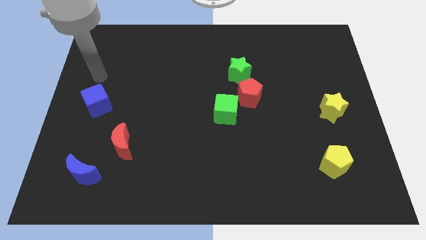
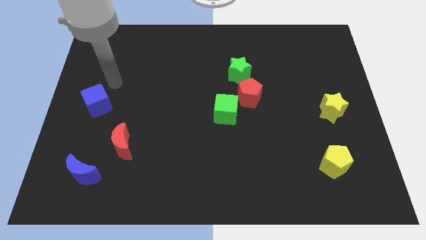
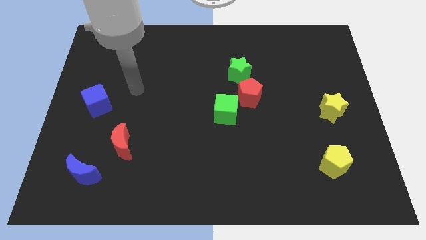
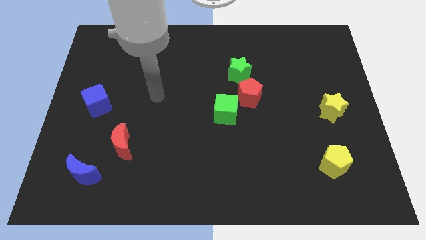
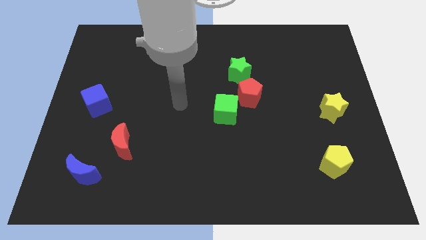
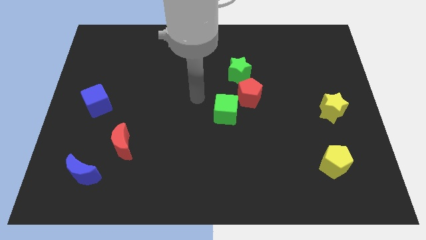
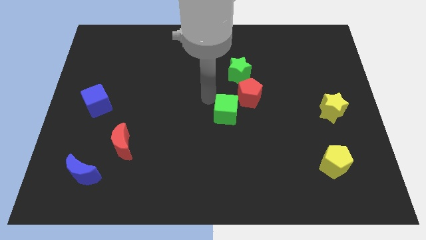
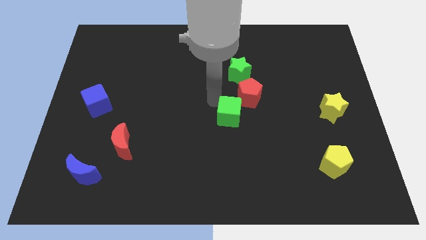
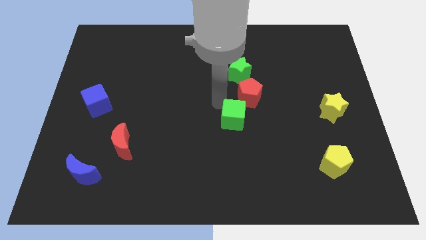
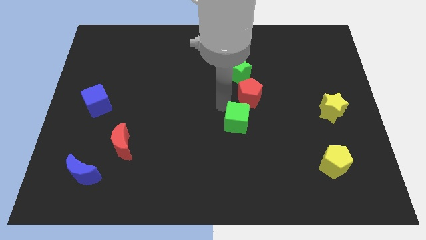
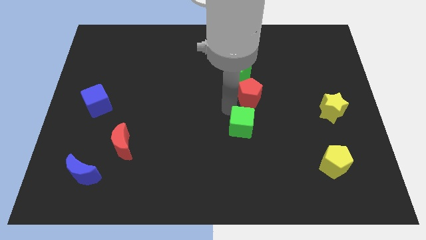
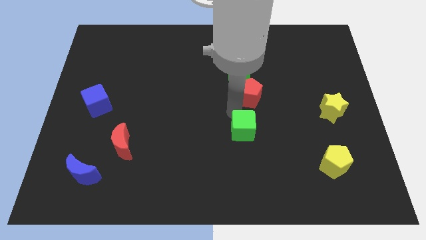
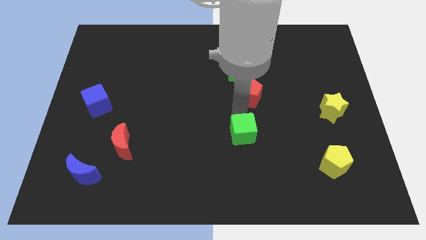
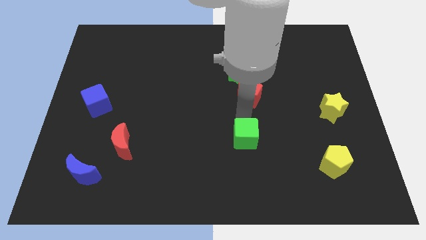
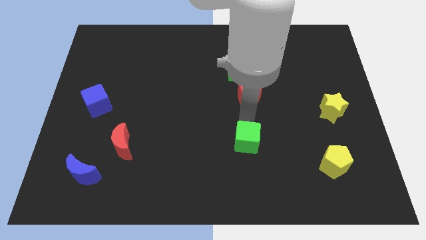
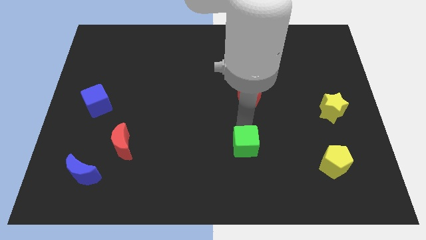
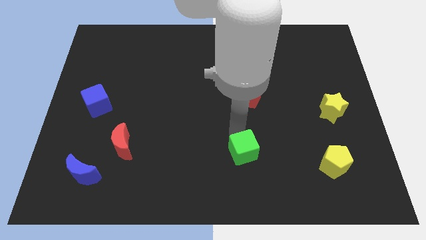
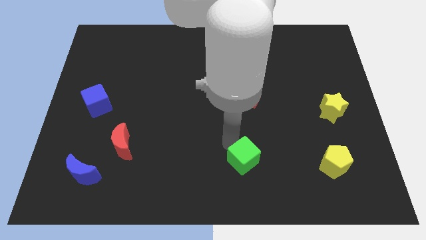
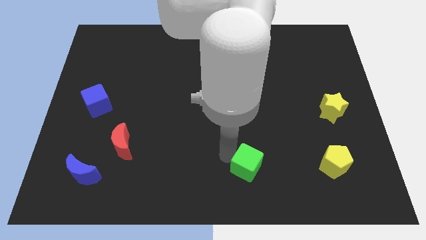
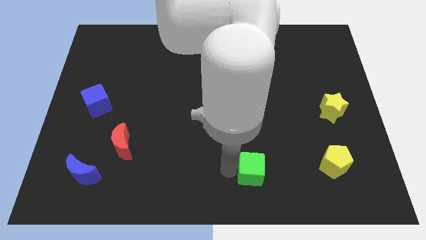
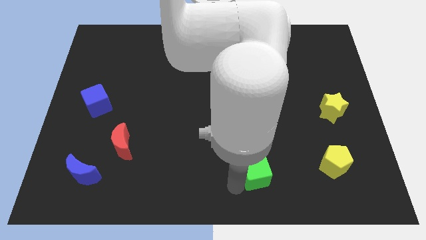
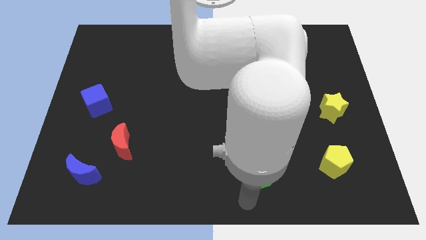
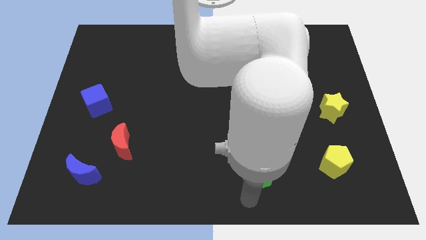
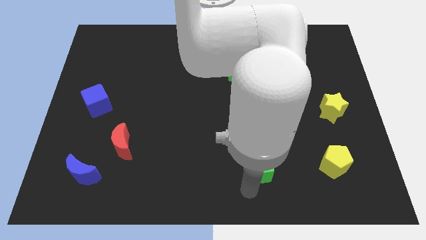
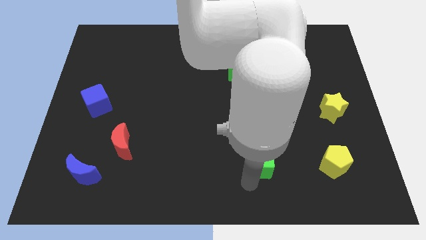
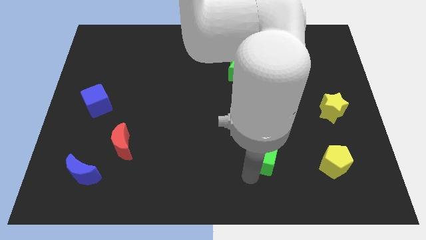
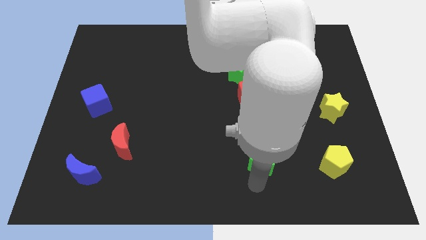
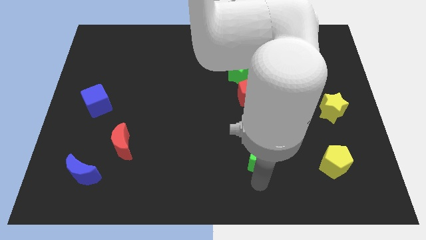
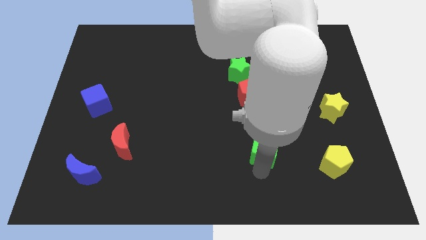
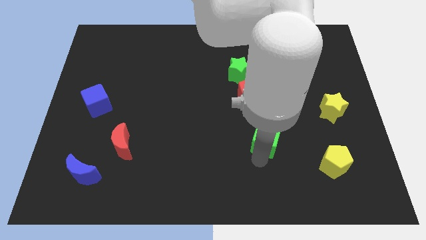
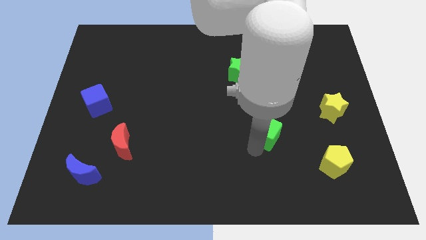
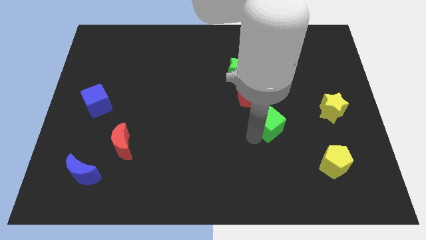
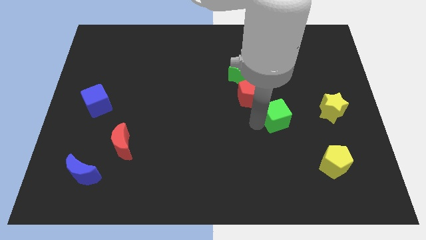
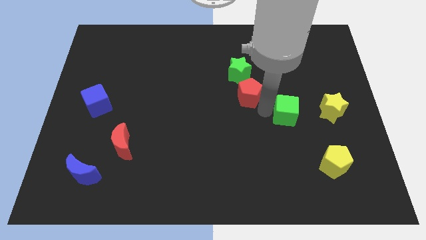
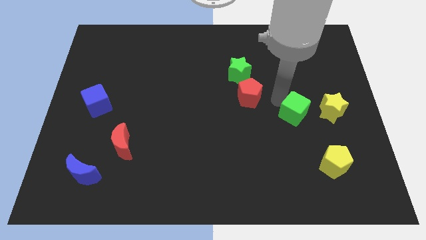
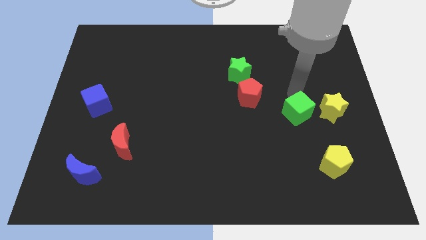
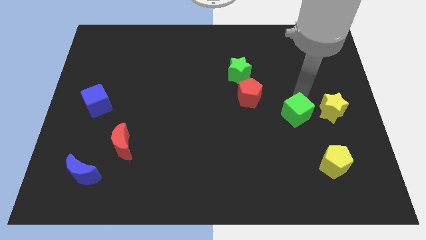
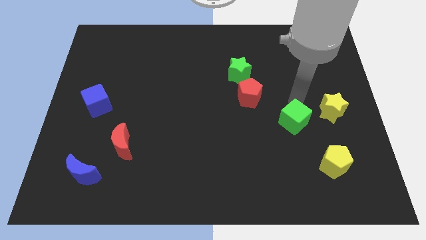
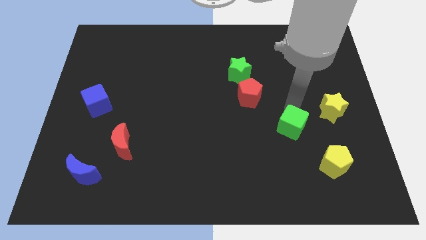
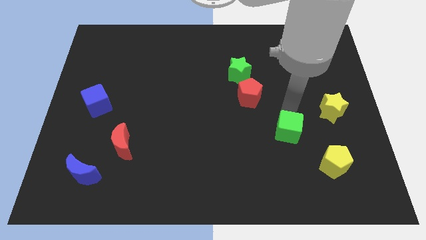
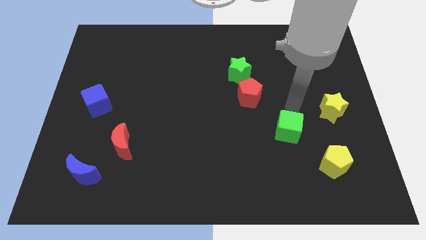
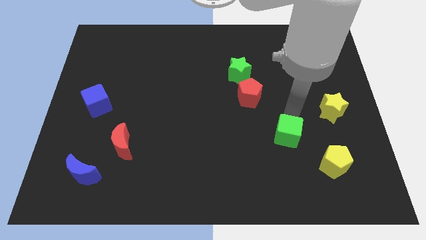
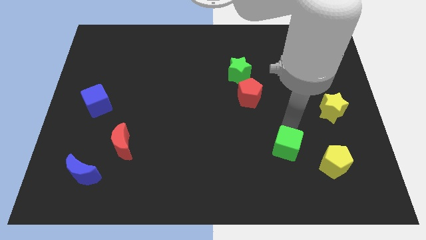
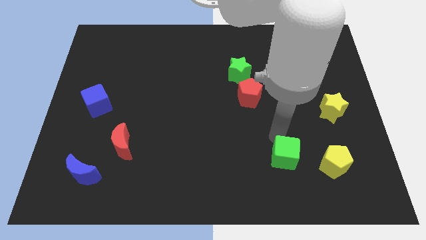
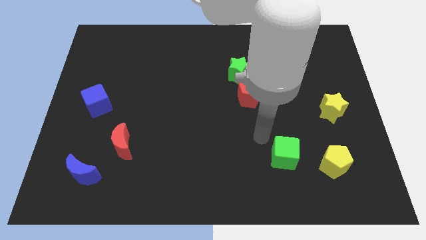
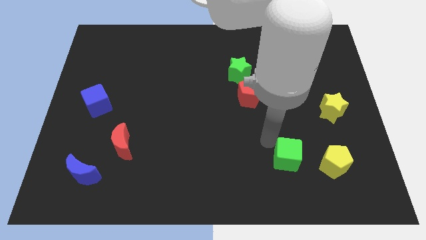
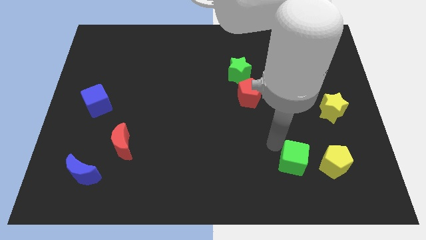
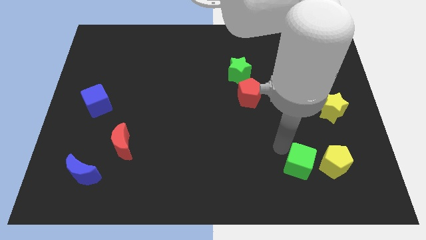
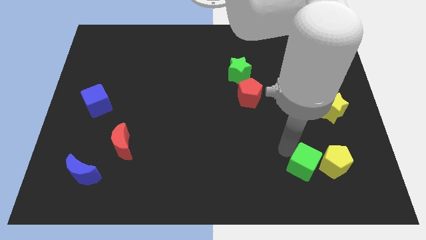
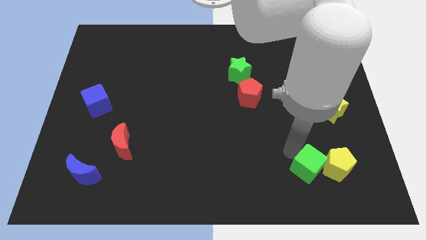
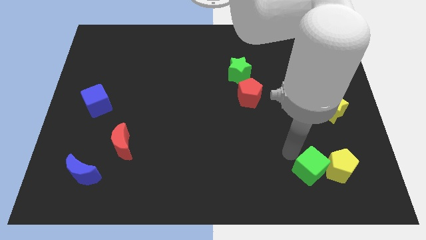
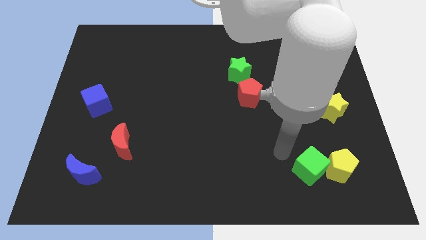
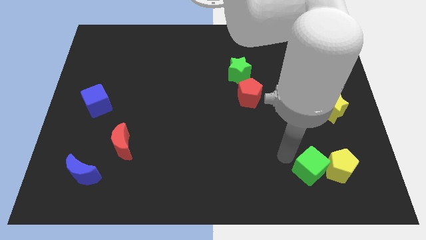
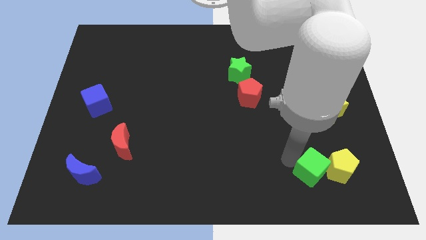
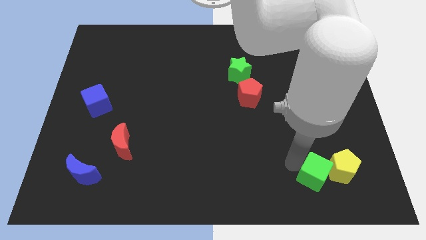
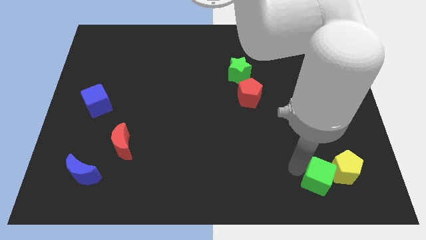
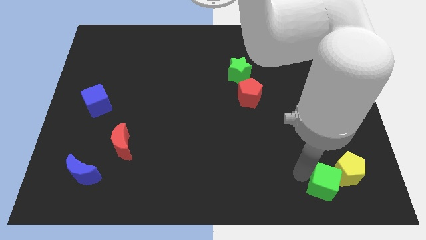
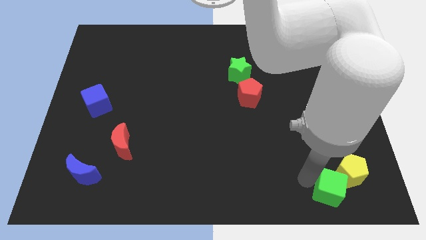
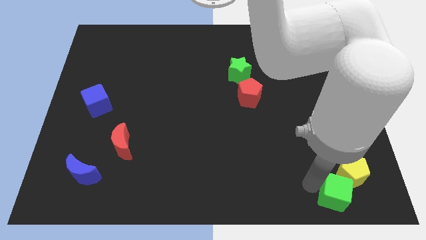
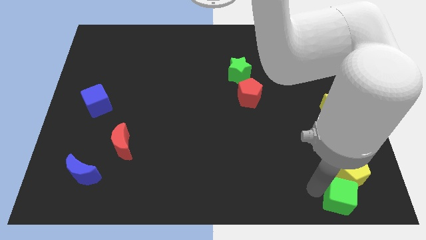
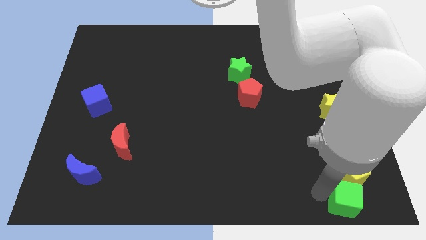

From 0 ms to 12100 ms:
move the green cube to the lower right corner

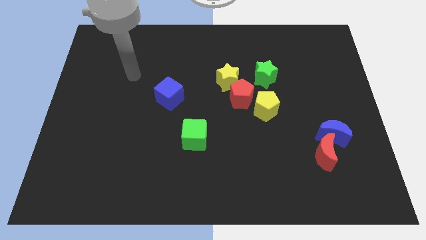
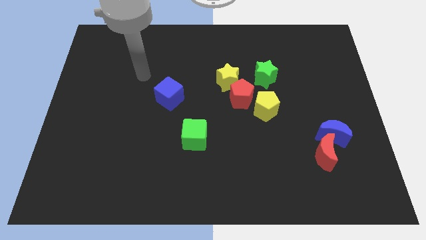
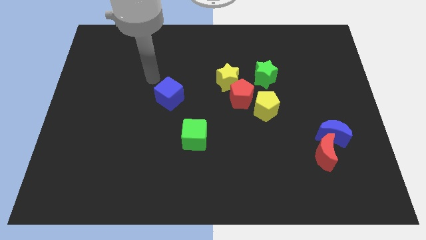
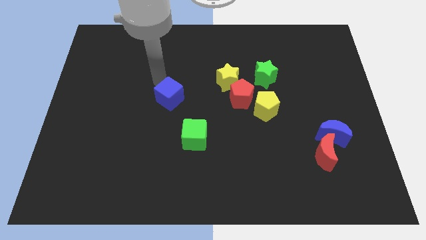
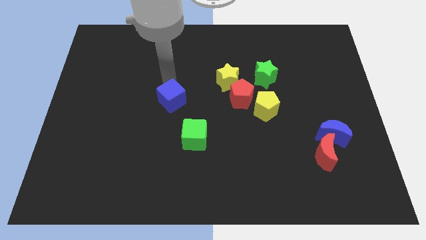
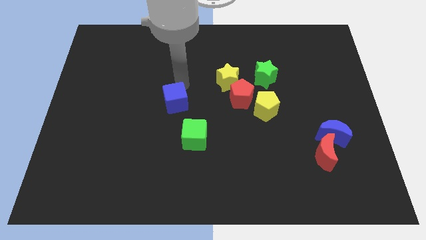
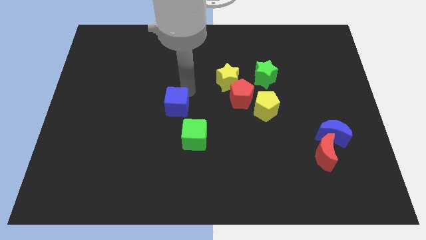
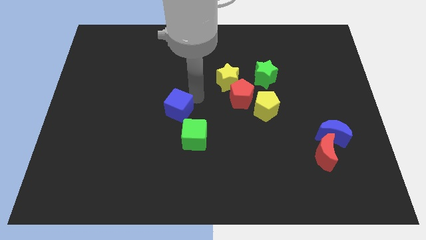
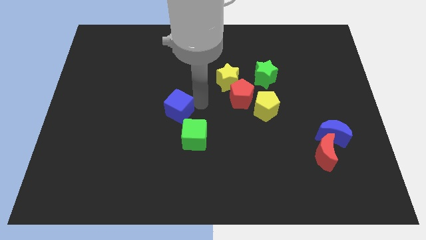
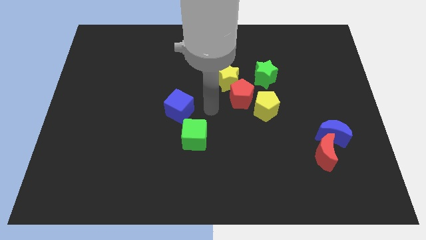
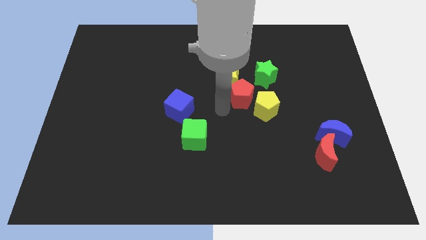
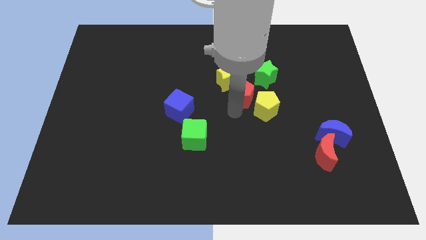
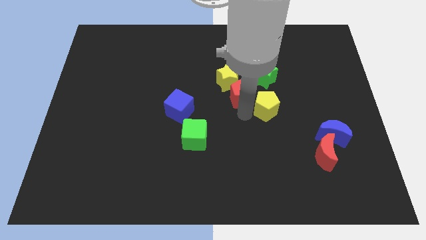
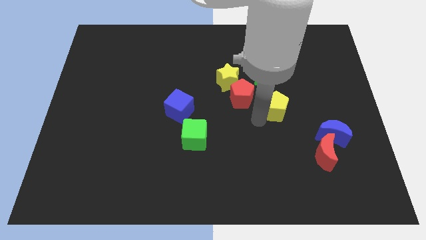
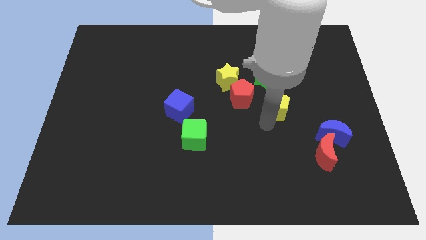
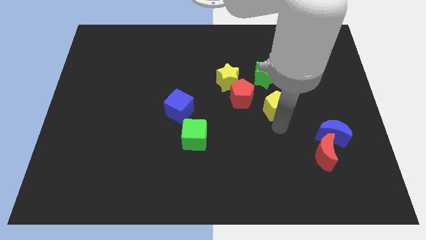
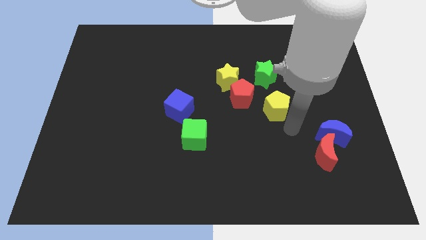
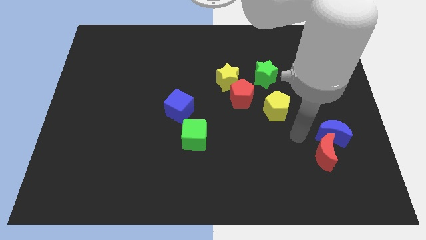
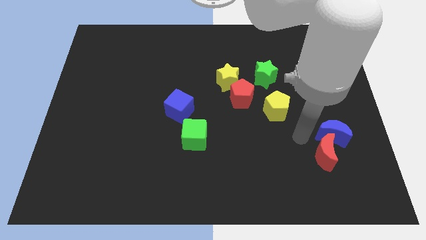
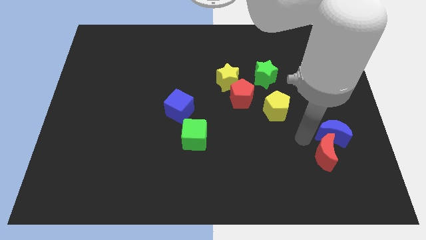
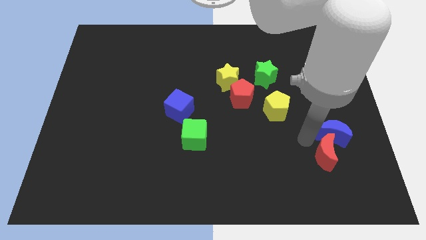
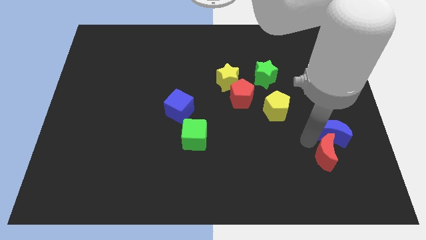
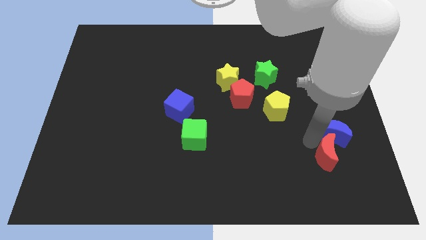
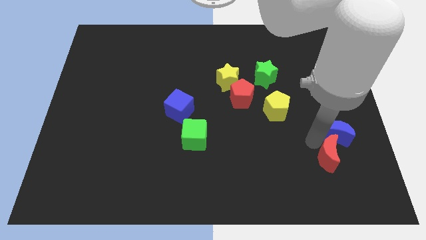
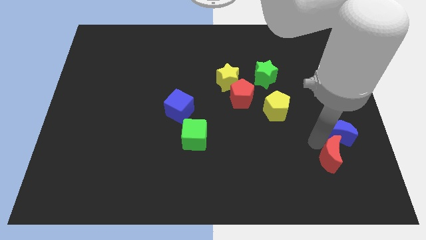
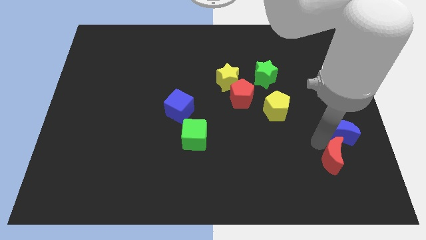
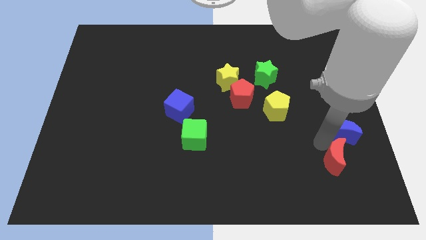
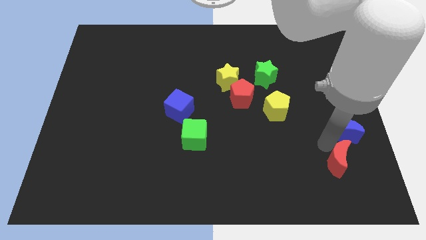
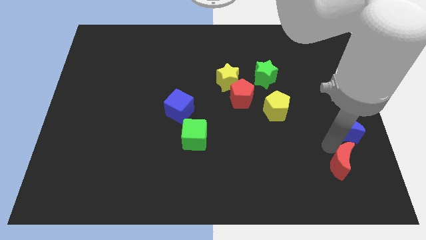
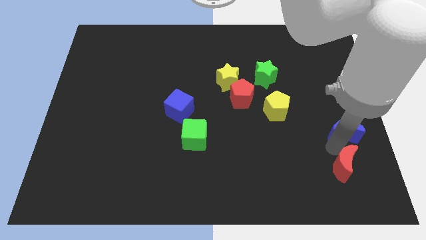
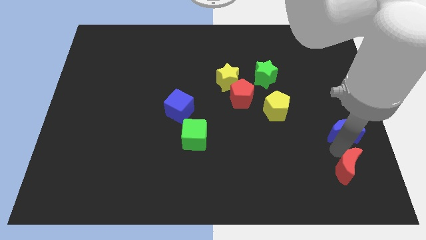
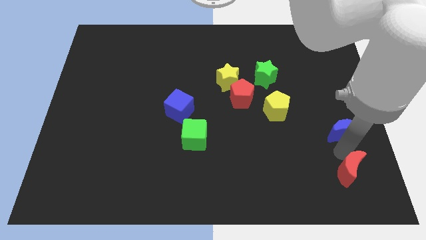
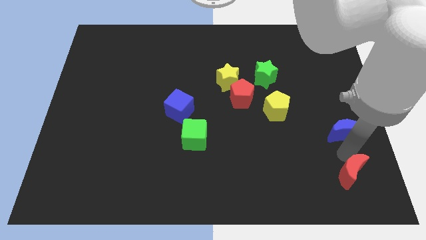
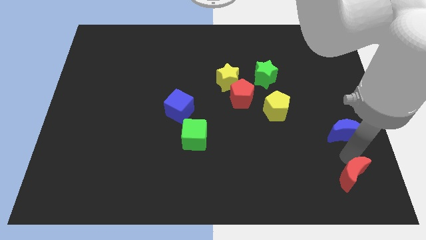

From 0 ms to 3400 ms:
push the red moon to the bottom right corner
